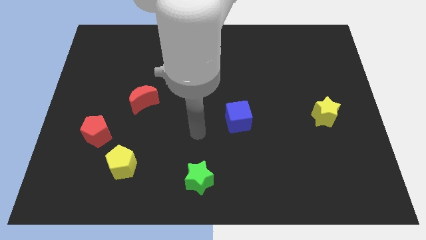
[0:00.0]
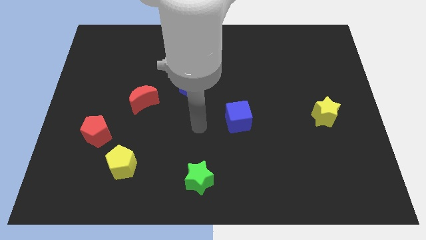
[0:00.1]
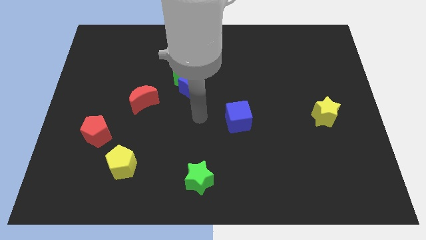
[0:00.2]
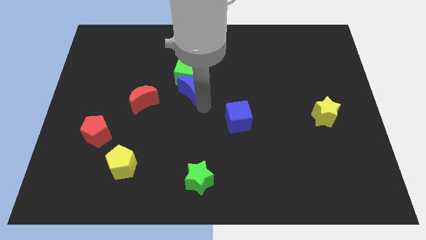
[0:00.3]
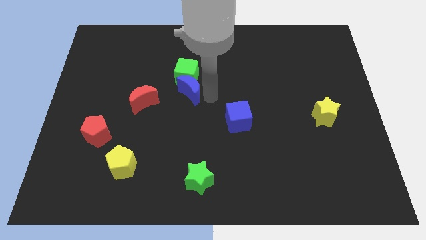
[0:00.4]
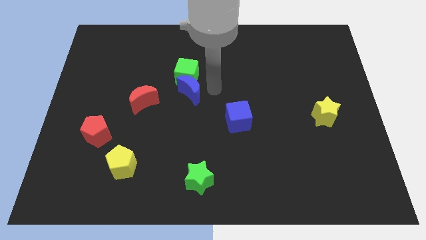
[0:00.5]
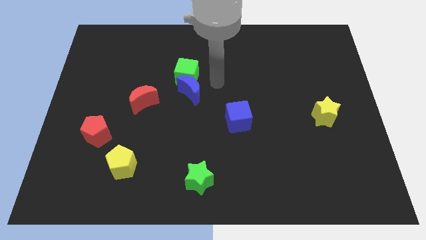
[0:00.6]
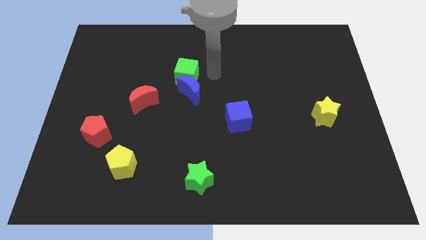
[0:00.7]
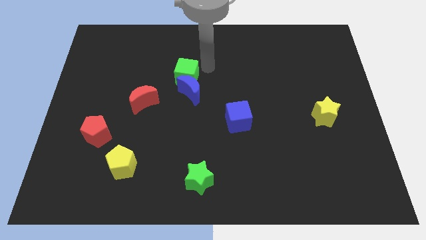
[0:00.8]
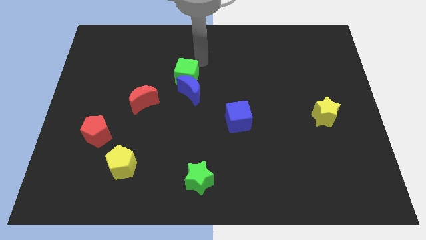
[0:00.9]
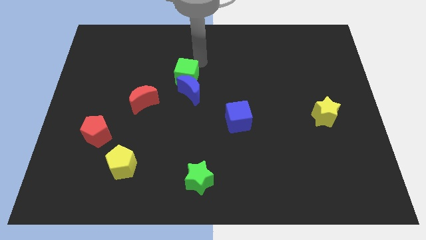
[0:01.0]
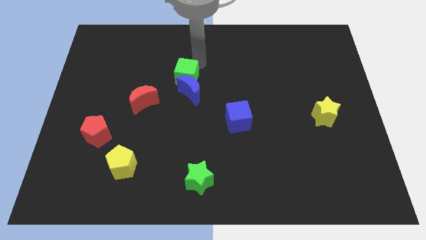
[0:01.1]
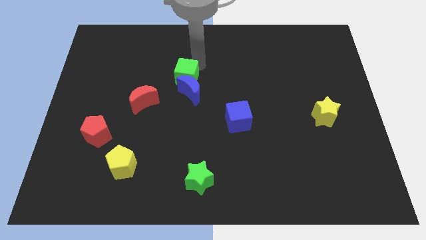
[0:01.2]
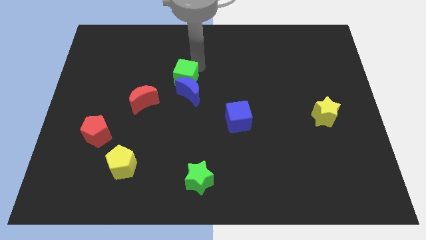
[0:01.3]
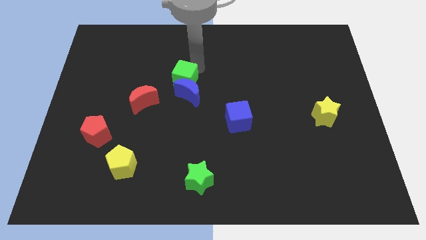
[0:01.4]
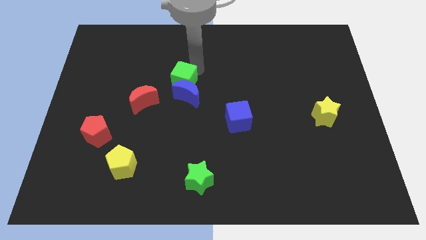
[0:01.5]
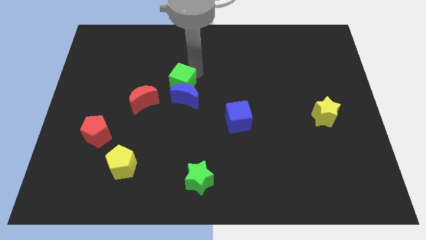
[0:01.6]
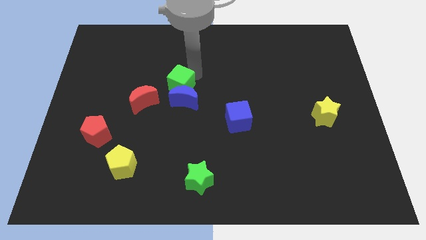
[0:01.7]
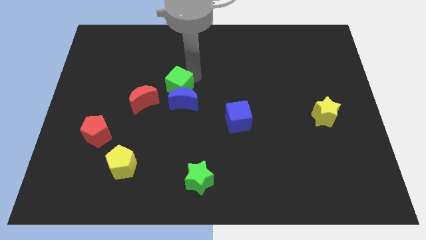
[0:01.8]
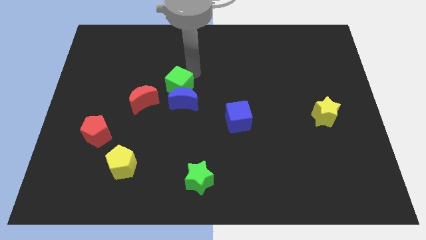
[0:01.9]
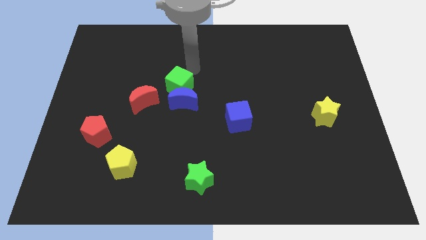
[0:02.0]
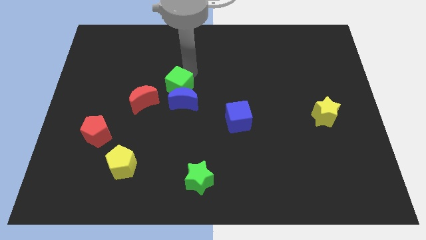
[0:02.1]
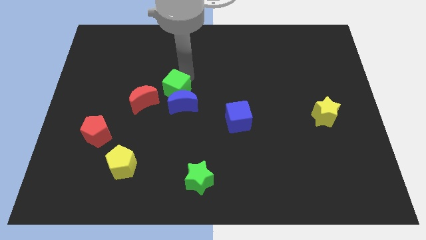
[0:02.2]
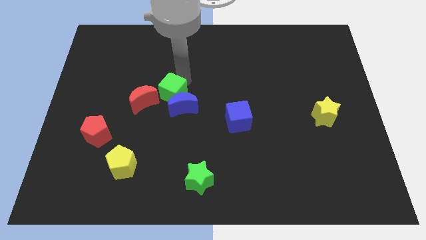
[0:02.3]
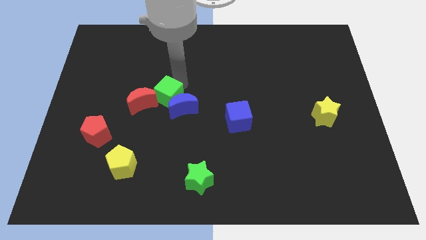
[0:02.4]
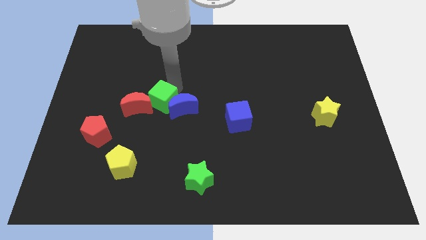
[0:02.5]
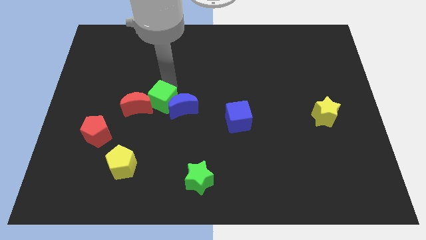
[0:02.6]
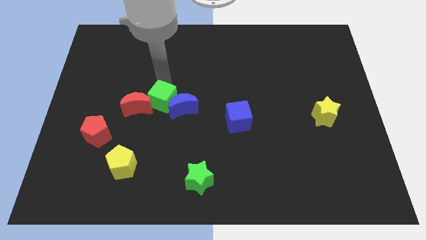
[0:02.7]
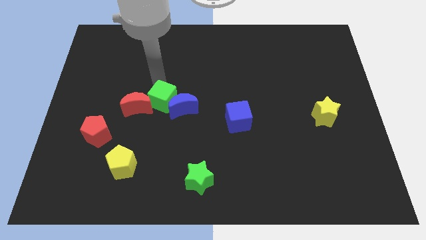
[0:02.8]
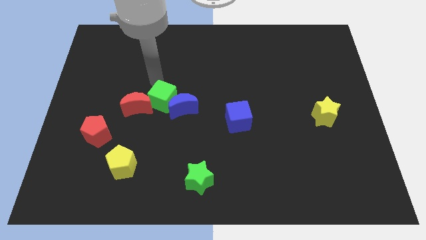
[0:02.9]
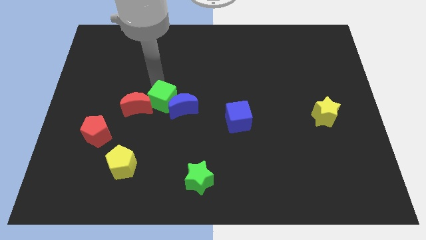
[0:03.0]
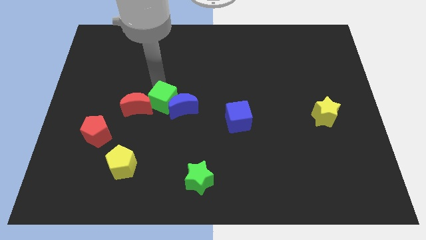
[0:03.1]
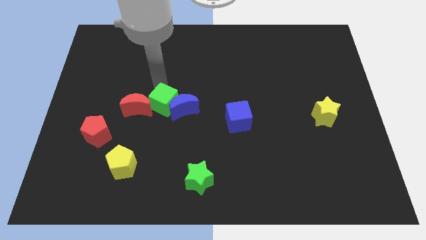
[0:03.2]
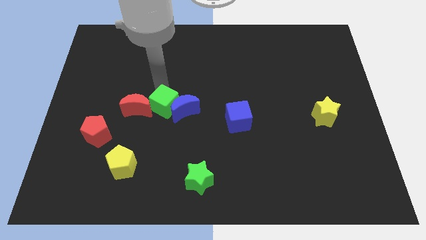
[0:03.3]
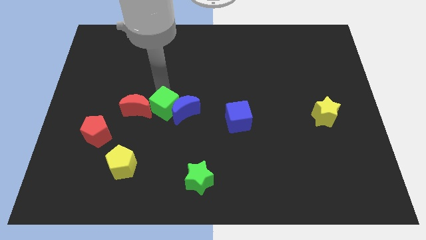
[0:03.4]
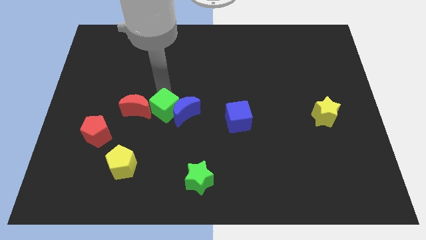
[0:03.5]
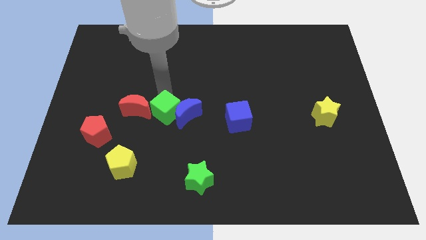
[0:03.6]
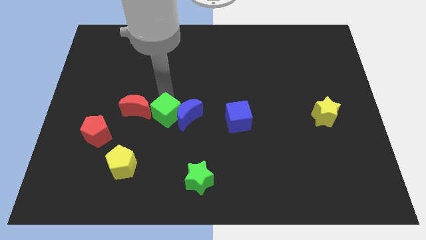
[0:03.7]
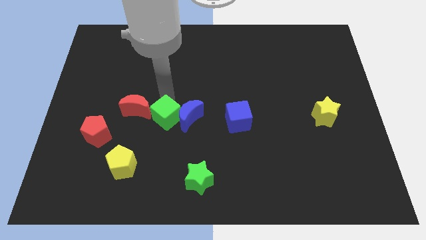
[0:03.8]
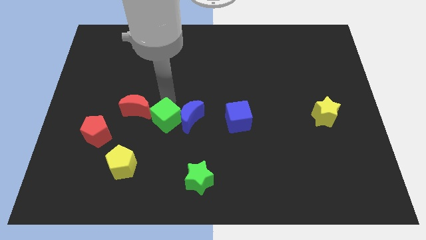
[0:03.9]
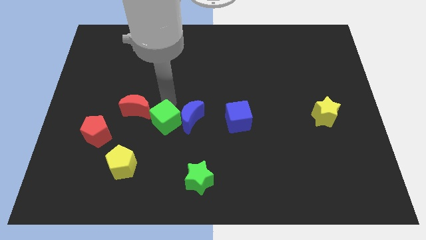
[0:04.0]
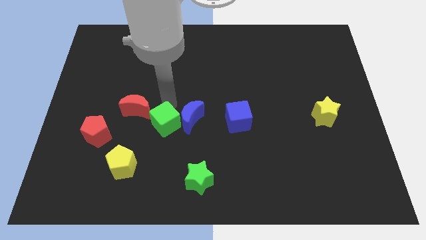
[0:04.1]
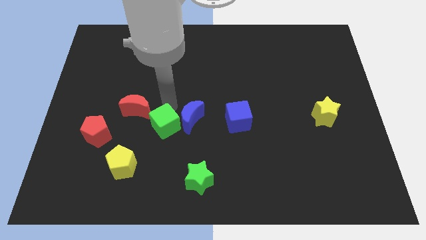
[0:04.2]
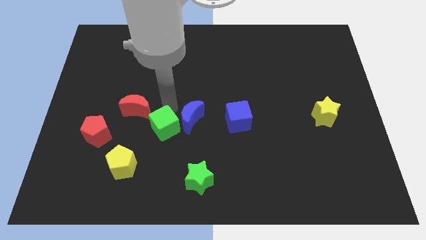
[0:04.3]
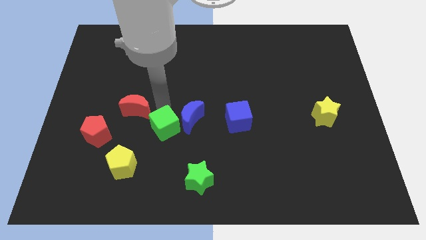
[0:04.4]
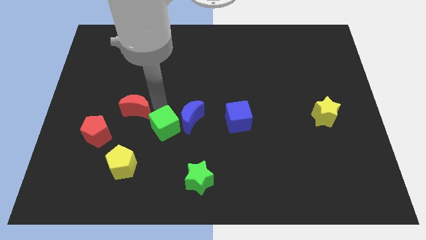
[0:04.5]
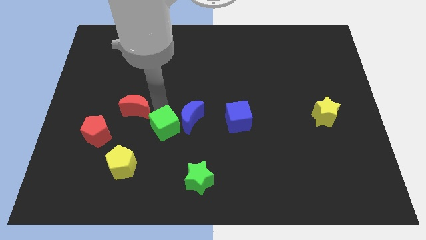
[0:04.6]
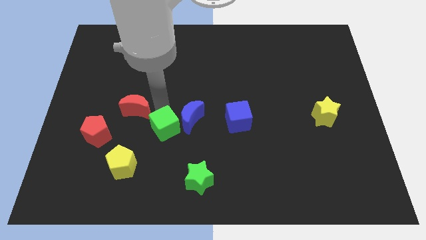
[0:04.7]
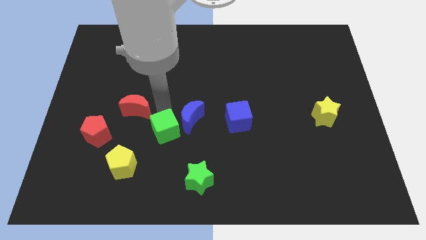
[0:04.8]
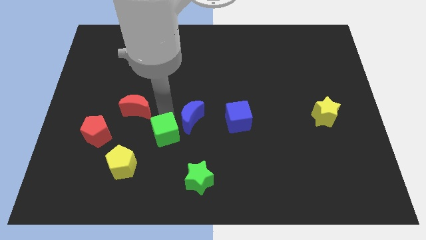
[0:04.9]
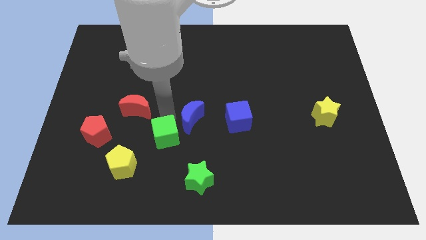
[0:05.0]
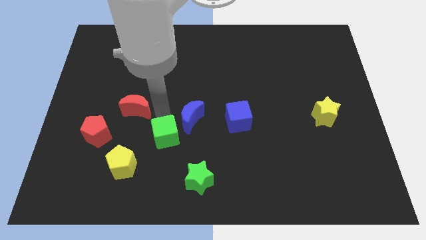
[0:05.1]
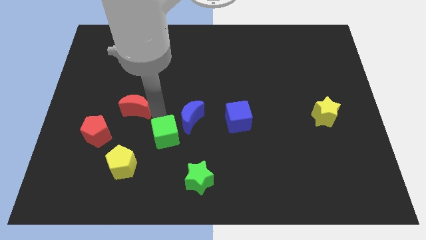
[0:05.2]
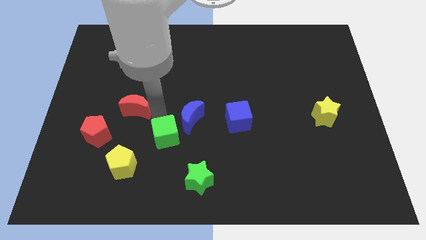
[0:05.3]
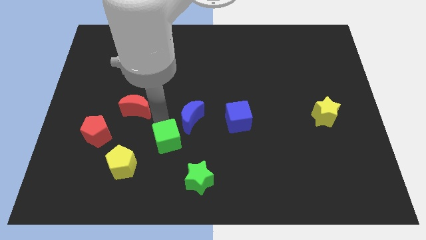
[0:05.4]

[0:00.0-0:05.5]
move the green cube to the top left side of the green star

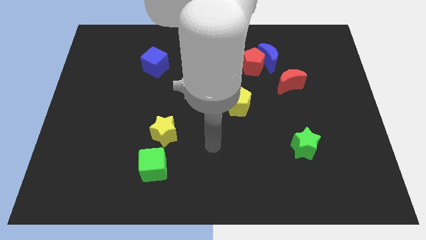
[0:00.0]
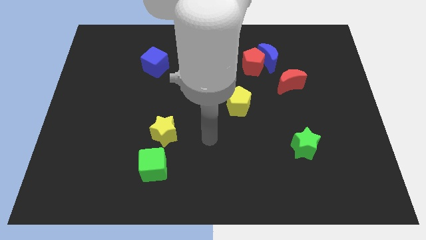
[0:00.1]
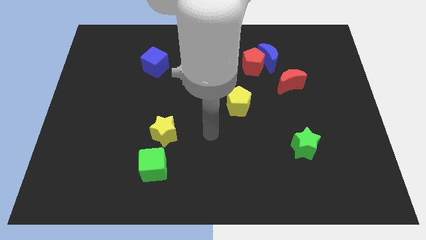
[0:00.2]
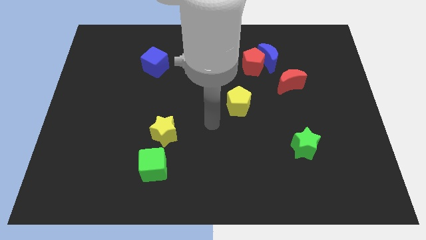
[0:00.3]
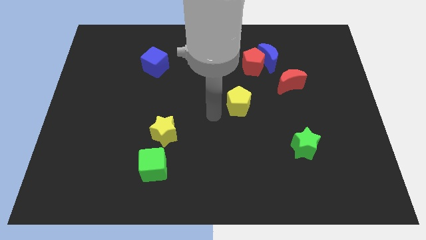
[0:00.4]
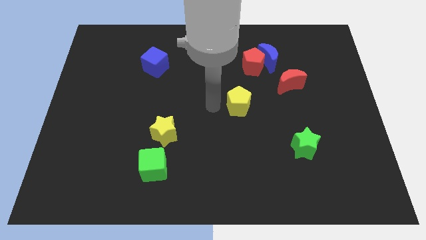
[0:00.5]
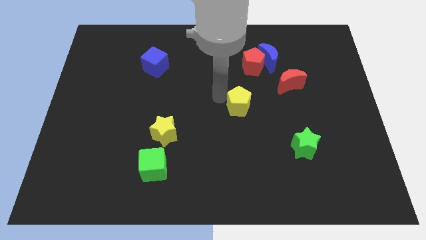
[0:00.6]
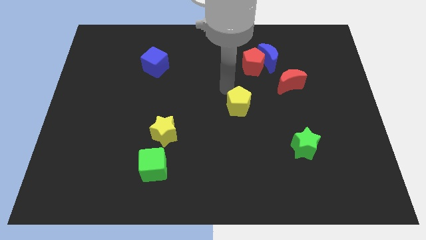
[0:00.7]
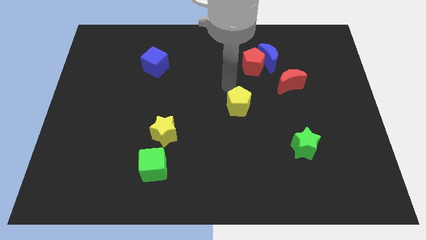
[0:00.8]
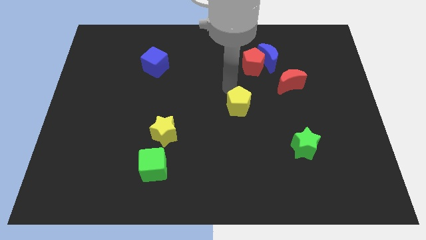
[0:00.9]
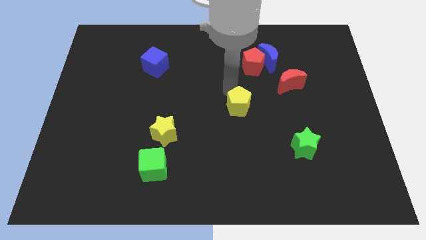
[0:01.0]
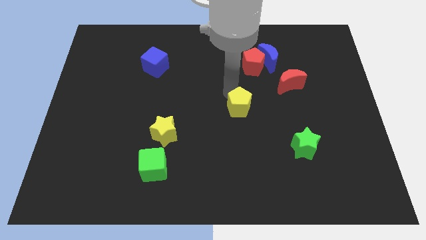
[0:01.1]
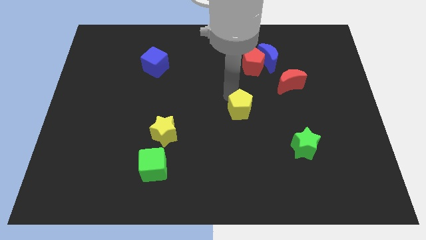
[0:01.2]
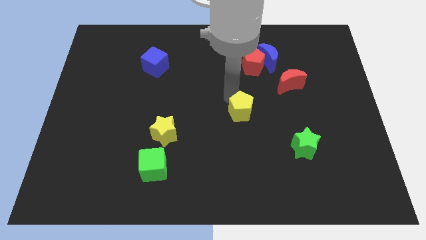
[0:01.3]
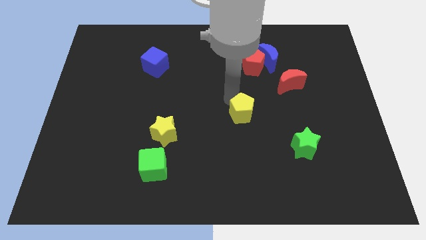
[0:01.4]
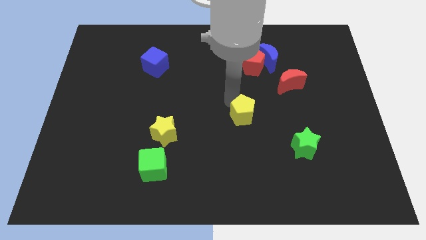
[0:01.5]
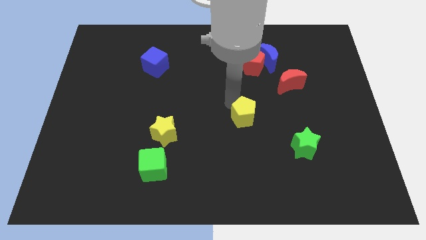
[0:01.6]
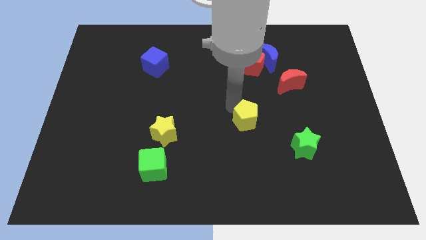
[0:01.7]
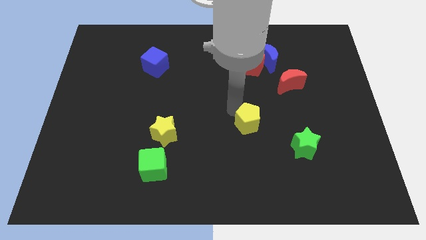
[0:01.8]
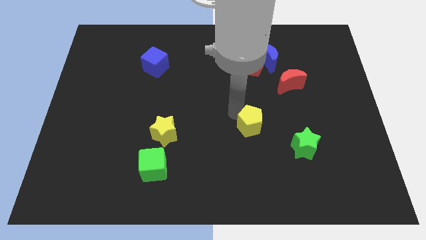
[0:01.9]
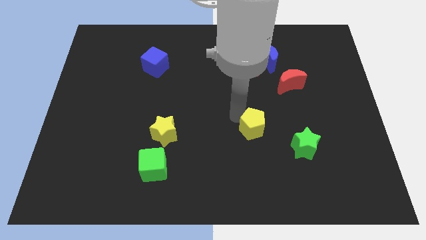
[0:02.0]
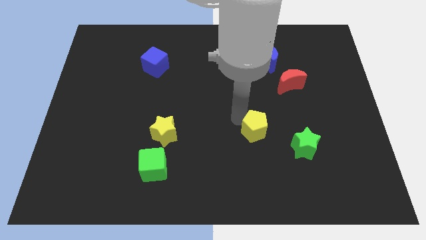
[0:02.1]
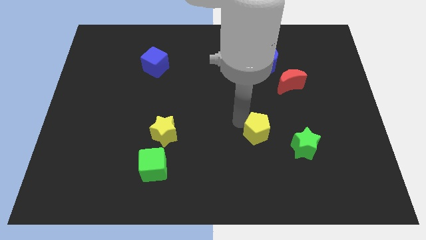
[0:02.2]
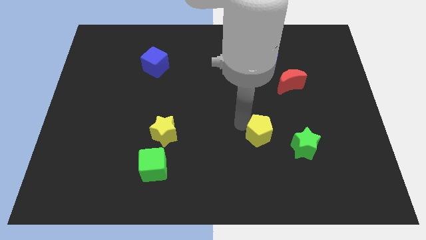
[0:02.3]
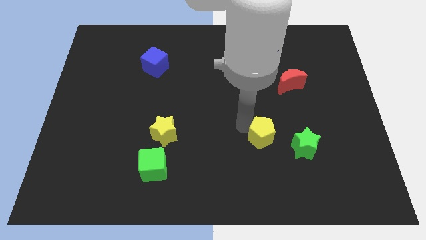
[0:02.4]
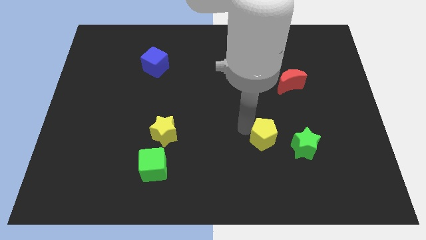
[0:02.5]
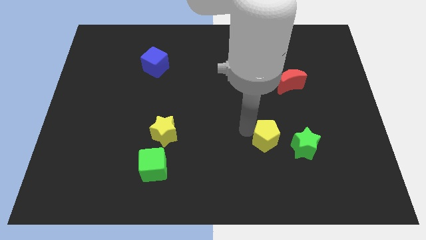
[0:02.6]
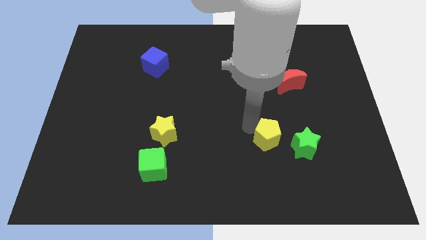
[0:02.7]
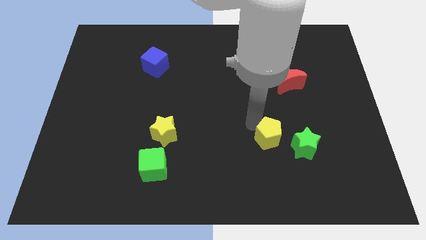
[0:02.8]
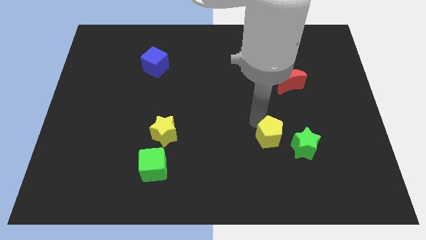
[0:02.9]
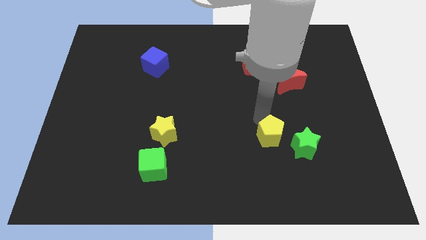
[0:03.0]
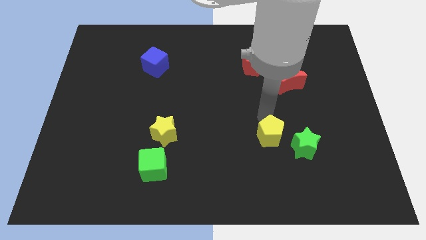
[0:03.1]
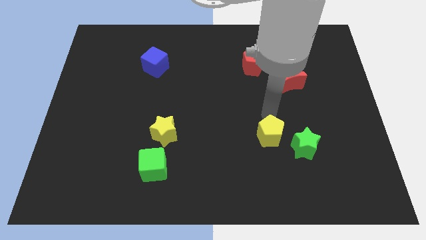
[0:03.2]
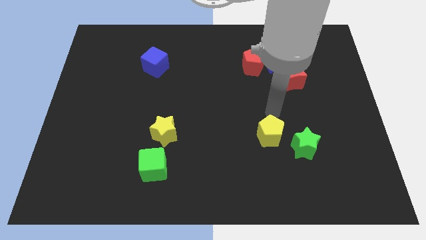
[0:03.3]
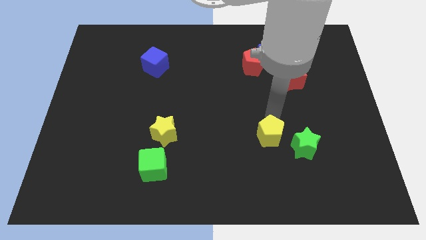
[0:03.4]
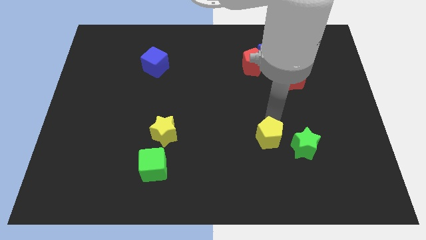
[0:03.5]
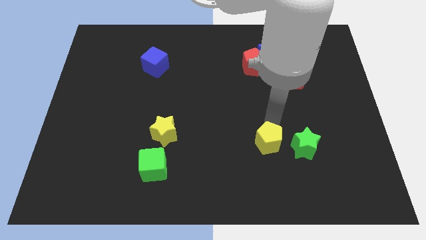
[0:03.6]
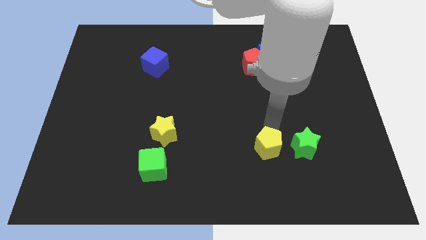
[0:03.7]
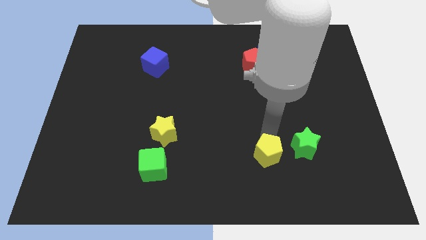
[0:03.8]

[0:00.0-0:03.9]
move the yellow pentagon diagonally down and to the left of the green star
